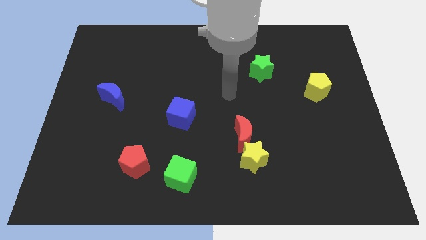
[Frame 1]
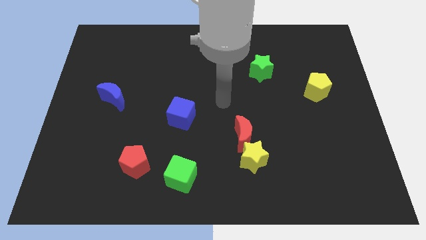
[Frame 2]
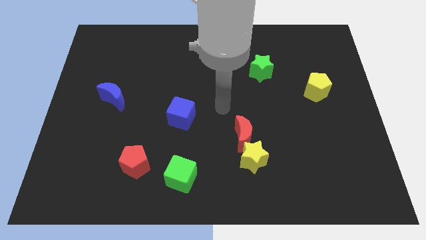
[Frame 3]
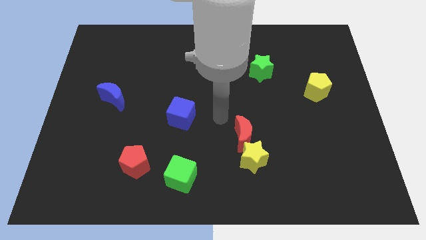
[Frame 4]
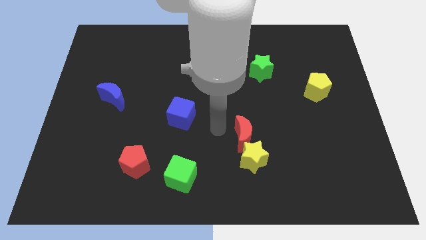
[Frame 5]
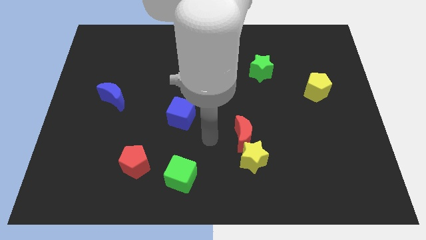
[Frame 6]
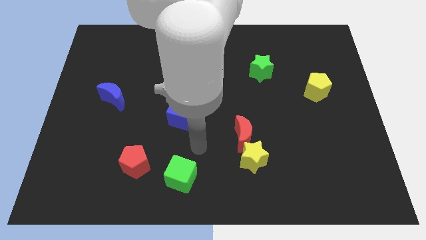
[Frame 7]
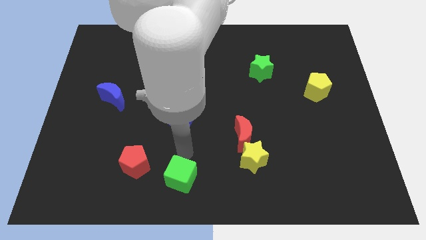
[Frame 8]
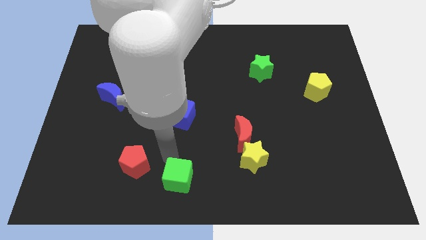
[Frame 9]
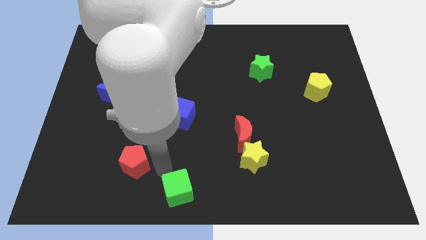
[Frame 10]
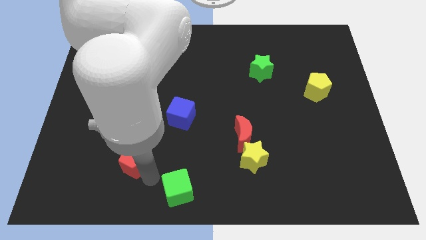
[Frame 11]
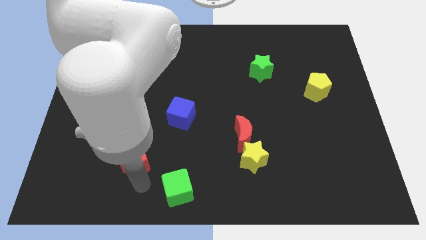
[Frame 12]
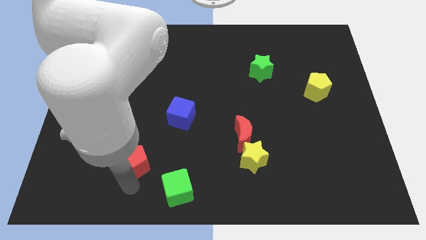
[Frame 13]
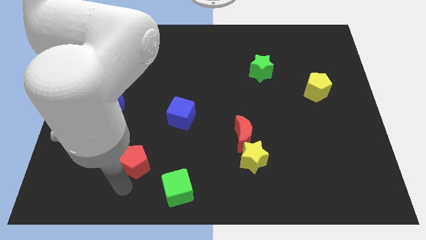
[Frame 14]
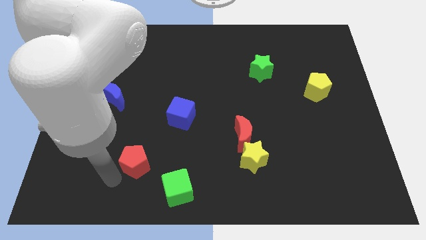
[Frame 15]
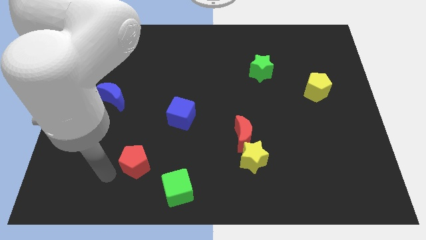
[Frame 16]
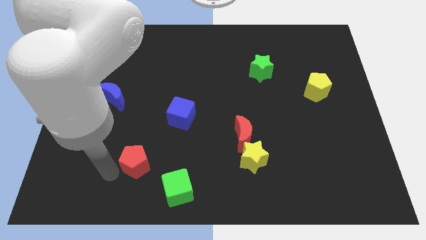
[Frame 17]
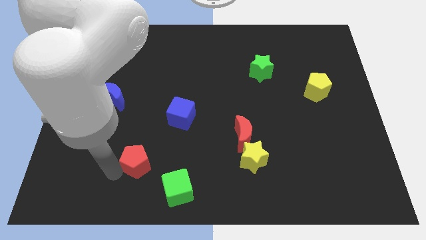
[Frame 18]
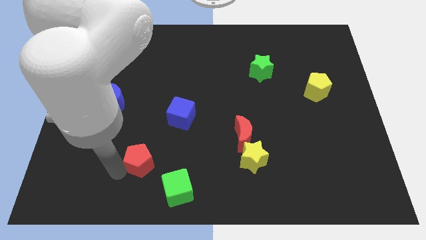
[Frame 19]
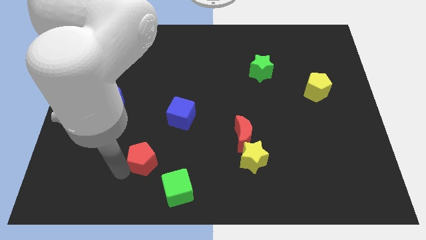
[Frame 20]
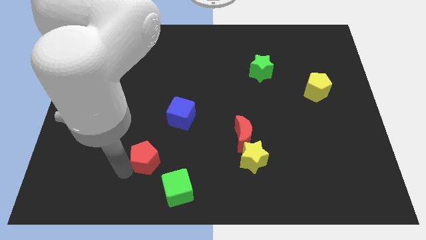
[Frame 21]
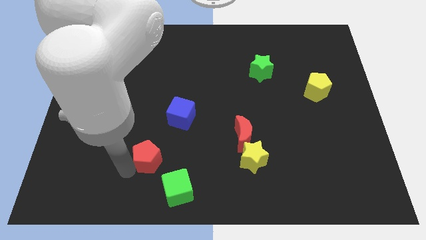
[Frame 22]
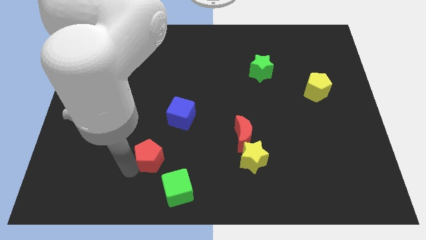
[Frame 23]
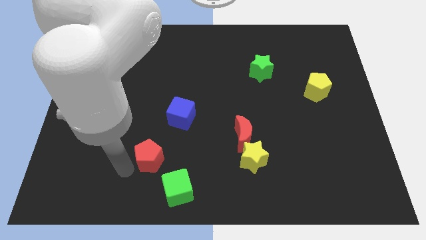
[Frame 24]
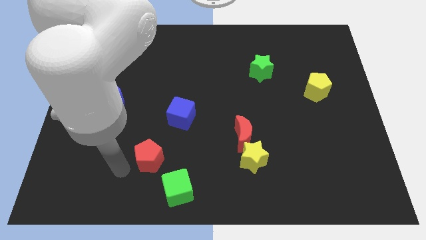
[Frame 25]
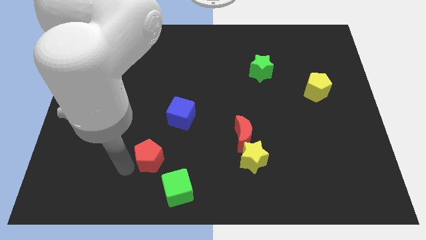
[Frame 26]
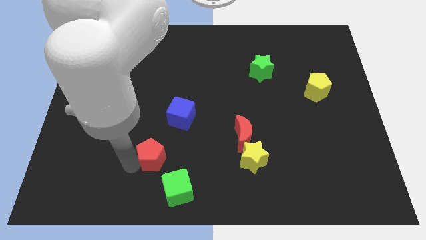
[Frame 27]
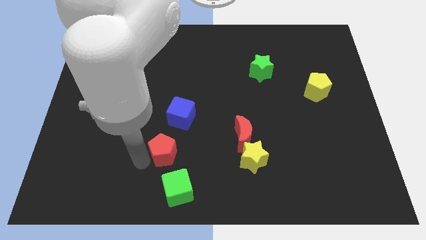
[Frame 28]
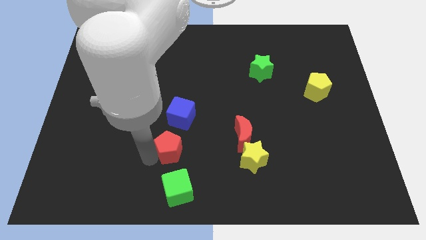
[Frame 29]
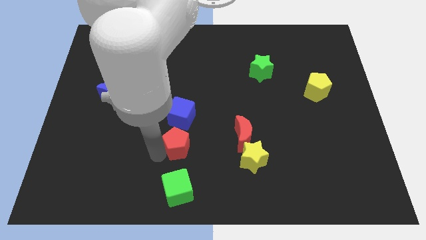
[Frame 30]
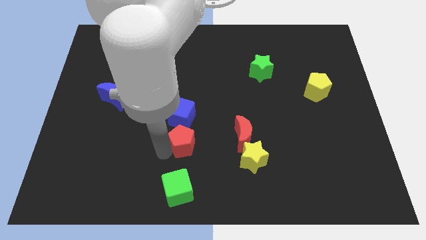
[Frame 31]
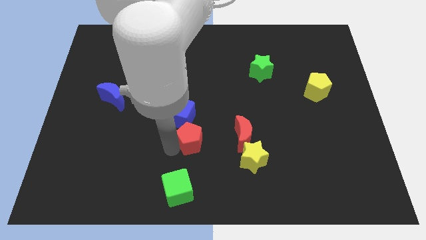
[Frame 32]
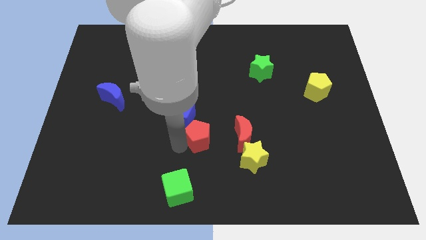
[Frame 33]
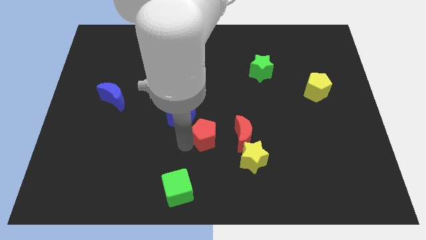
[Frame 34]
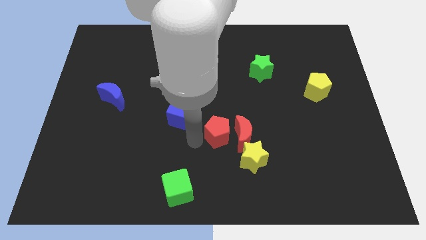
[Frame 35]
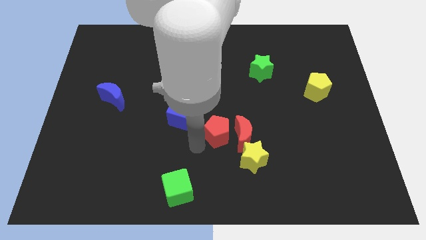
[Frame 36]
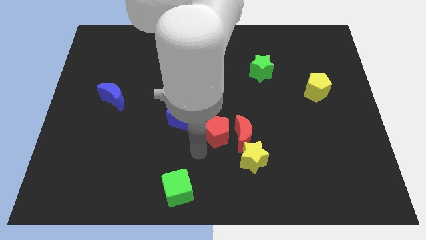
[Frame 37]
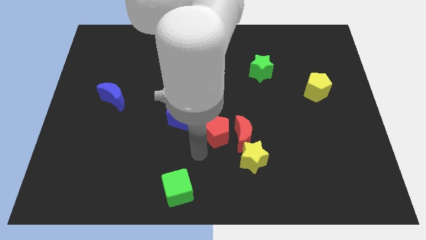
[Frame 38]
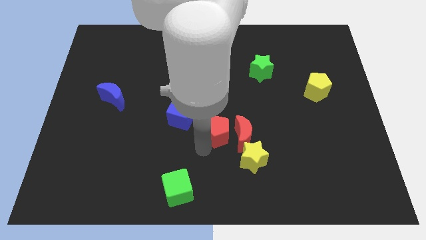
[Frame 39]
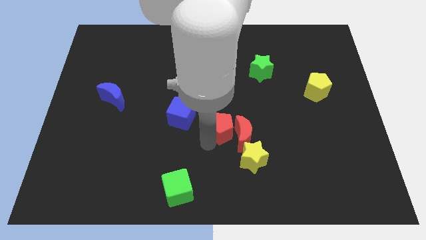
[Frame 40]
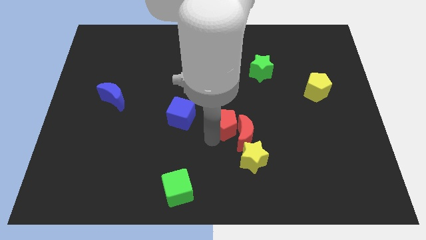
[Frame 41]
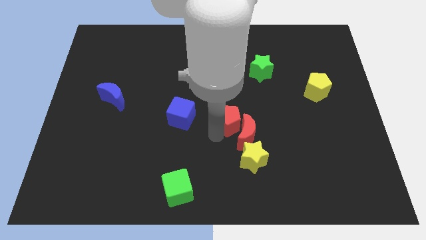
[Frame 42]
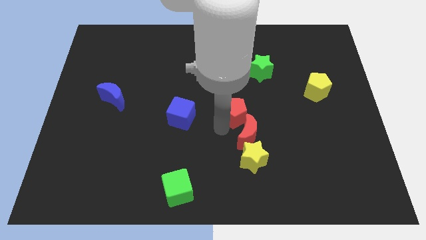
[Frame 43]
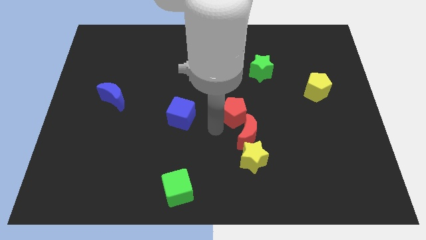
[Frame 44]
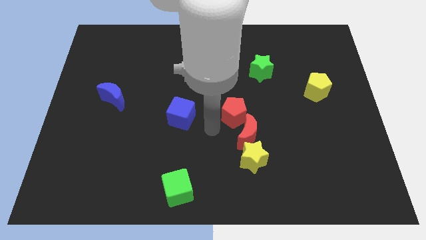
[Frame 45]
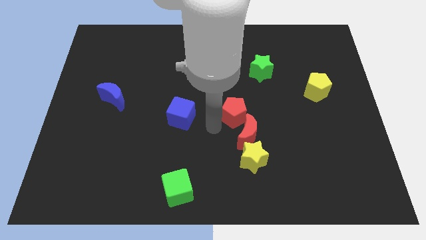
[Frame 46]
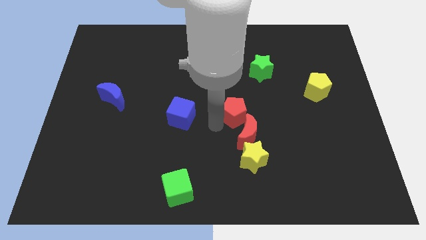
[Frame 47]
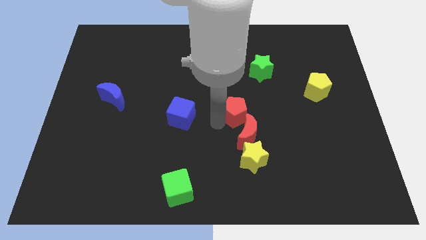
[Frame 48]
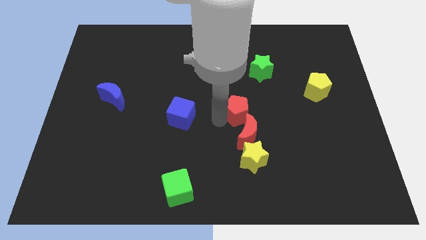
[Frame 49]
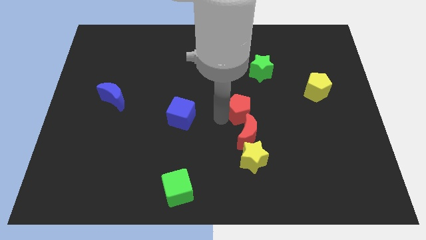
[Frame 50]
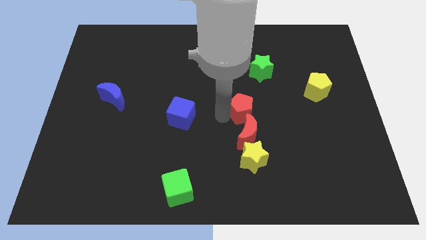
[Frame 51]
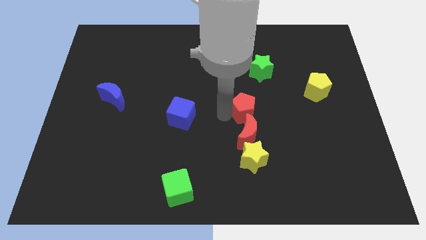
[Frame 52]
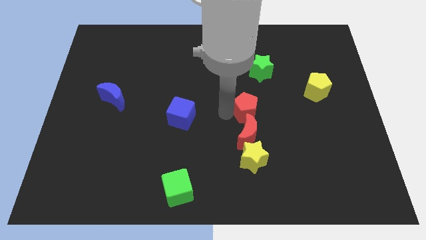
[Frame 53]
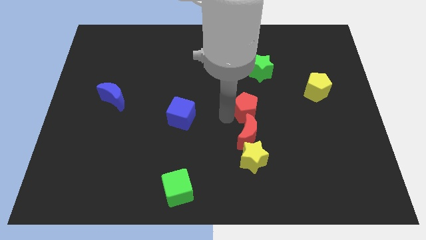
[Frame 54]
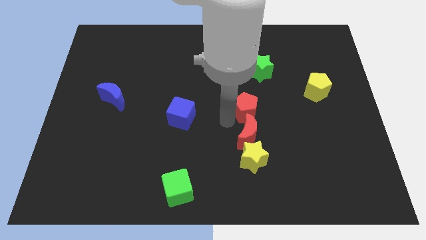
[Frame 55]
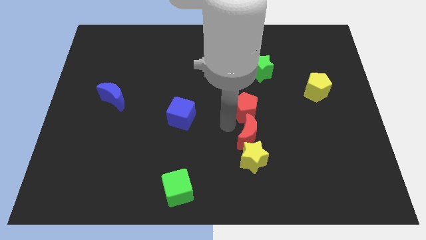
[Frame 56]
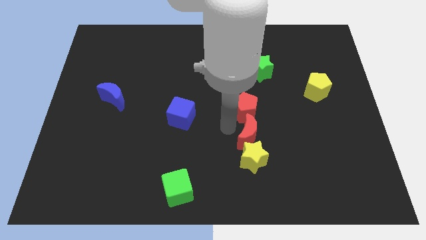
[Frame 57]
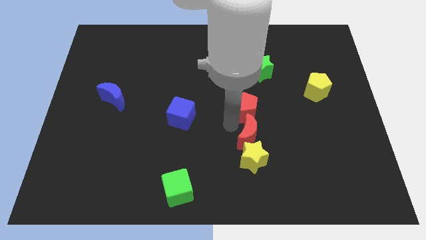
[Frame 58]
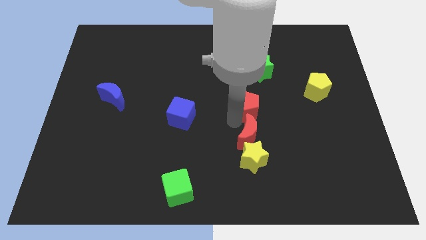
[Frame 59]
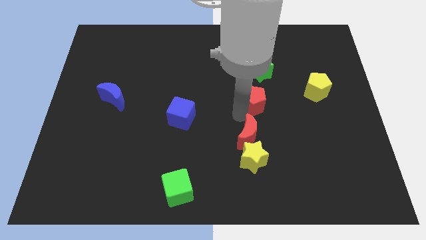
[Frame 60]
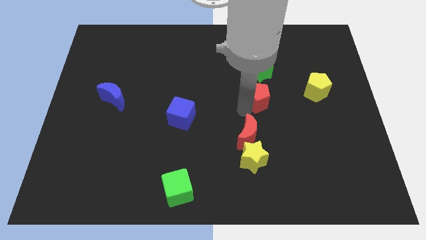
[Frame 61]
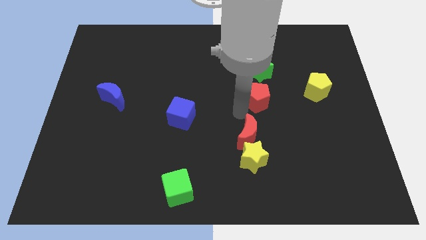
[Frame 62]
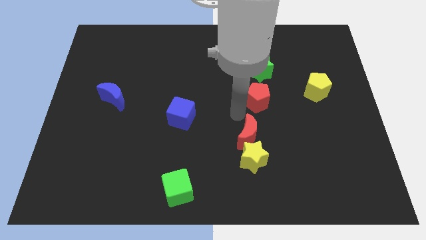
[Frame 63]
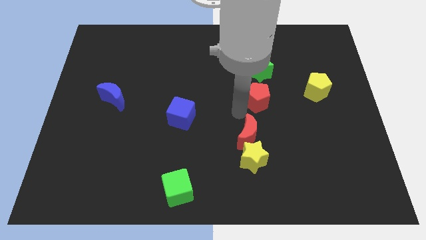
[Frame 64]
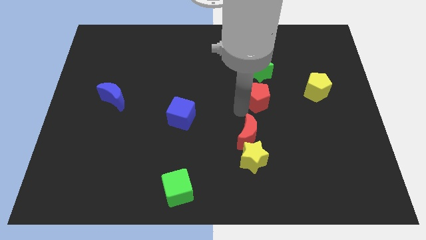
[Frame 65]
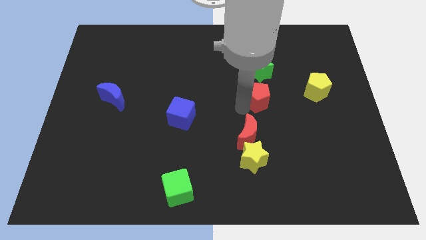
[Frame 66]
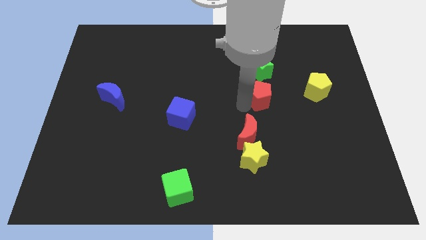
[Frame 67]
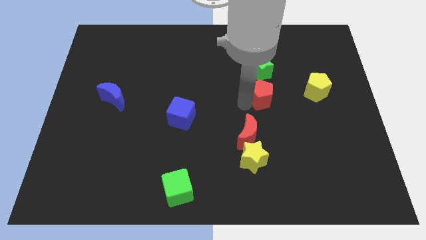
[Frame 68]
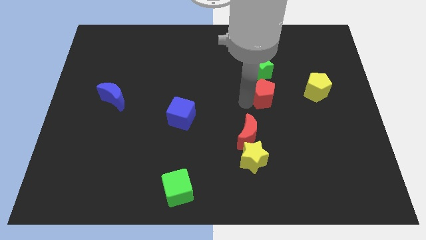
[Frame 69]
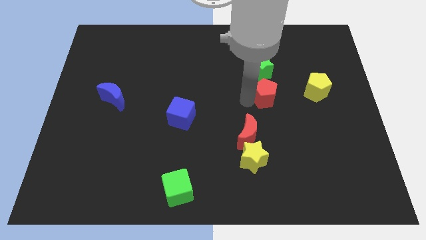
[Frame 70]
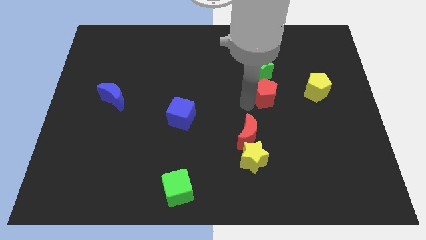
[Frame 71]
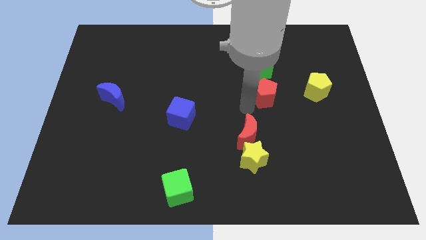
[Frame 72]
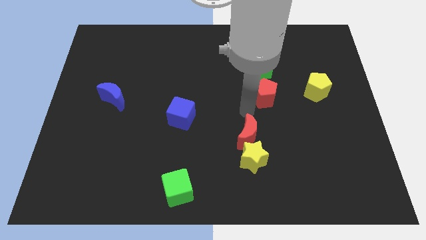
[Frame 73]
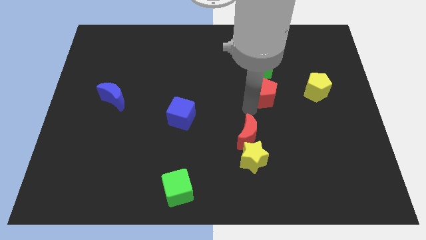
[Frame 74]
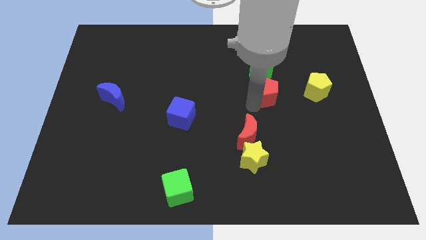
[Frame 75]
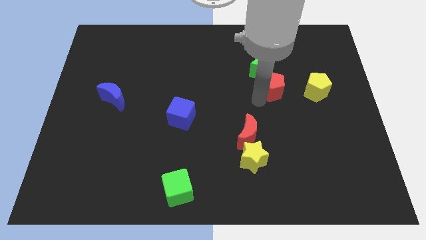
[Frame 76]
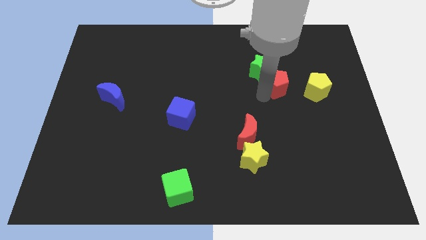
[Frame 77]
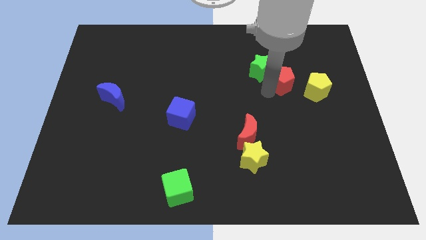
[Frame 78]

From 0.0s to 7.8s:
move the red pentagon to the top left of the yellow pentagon
